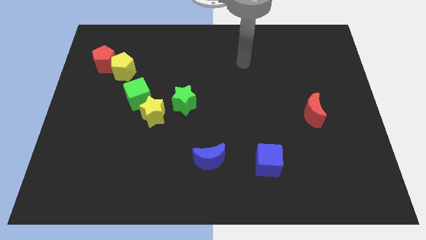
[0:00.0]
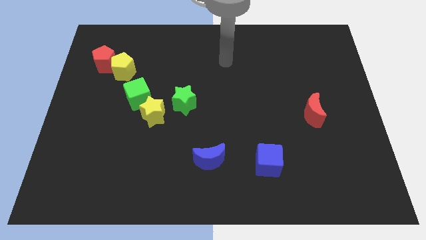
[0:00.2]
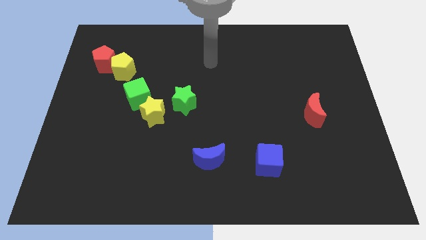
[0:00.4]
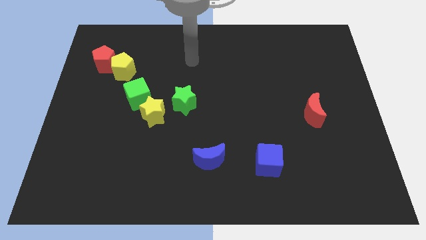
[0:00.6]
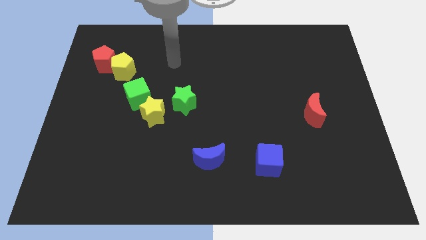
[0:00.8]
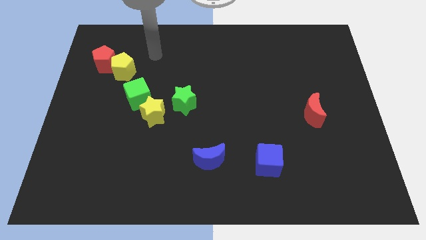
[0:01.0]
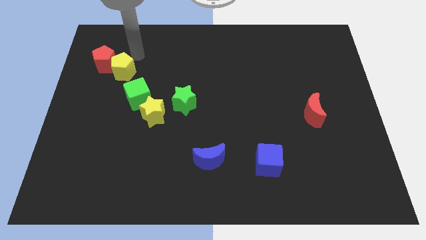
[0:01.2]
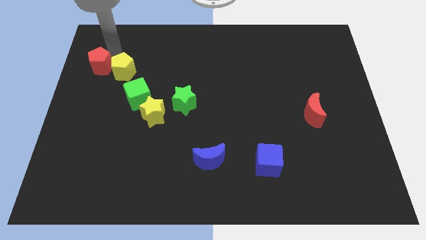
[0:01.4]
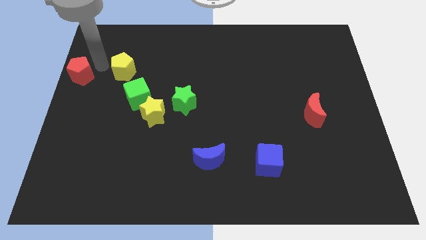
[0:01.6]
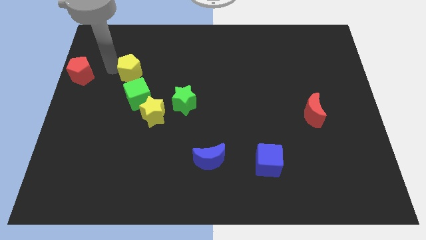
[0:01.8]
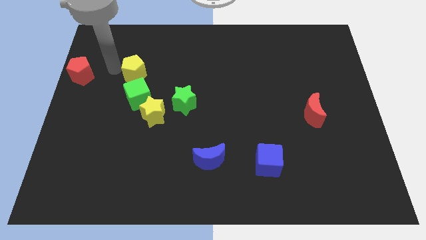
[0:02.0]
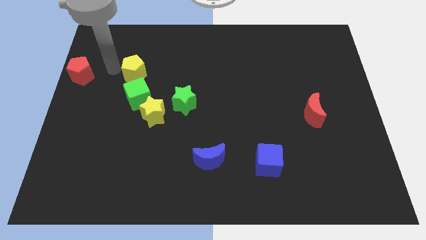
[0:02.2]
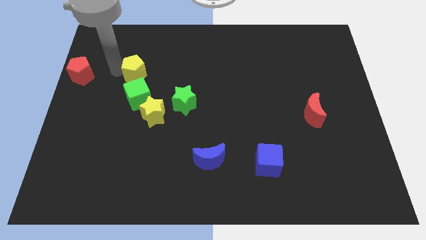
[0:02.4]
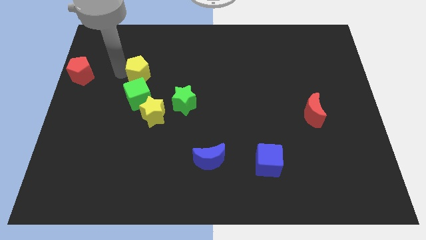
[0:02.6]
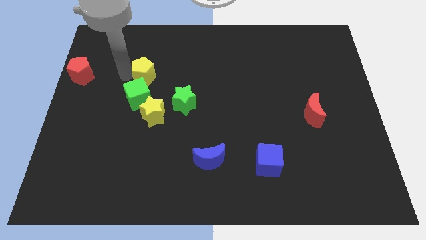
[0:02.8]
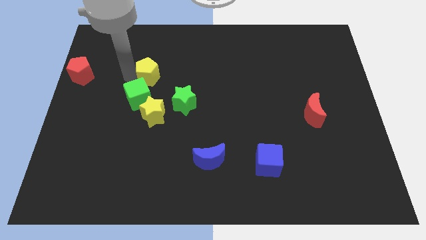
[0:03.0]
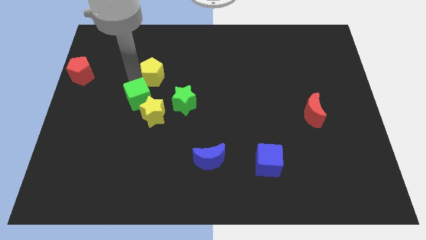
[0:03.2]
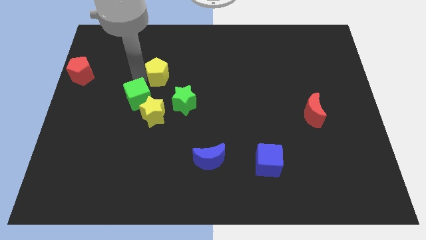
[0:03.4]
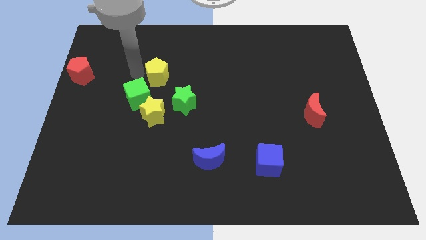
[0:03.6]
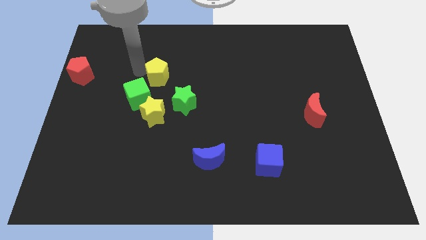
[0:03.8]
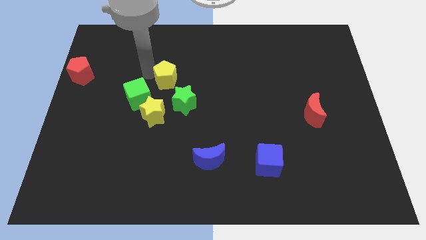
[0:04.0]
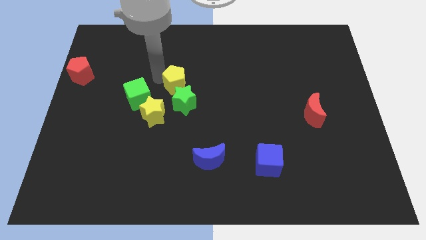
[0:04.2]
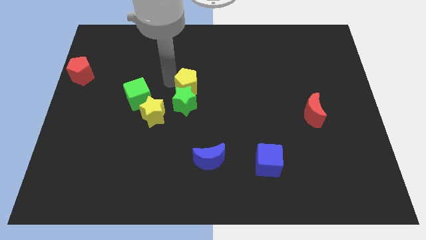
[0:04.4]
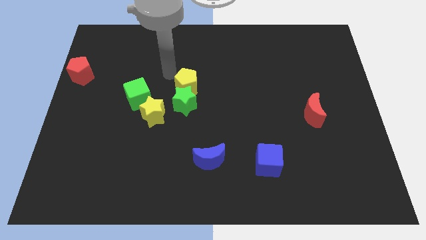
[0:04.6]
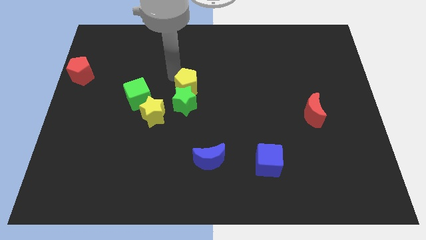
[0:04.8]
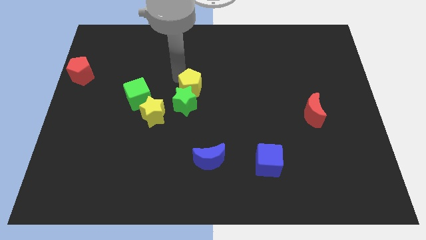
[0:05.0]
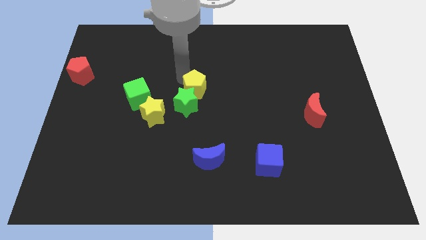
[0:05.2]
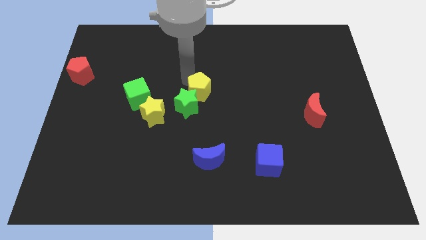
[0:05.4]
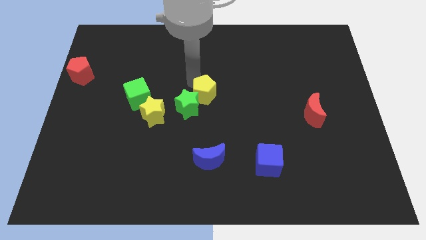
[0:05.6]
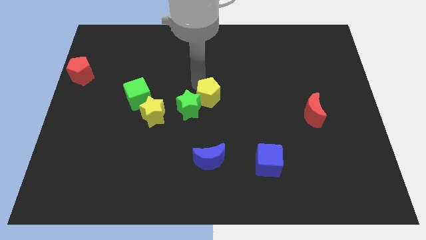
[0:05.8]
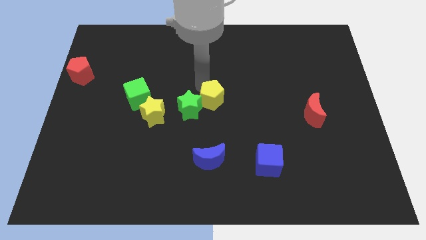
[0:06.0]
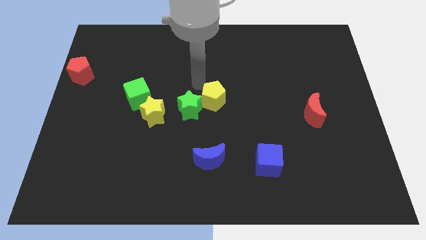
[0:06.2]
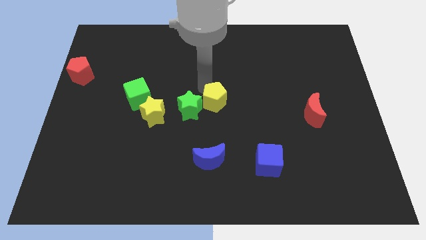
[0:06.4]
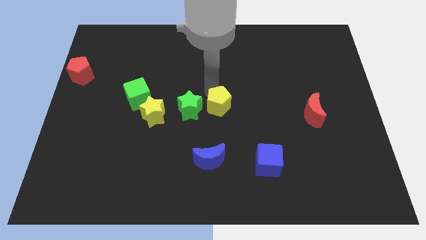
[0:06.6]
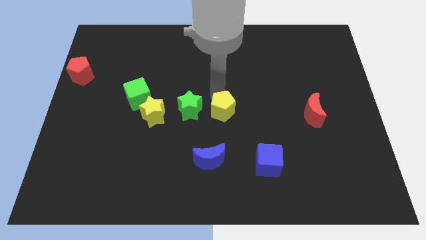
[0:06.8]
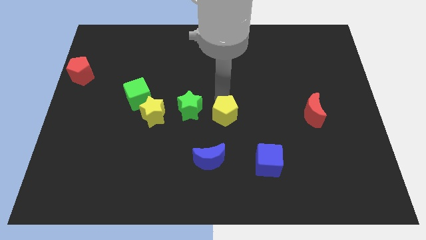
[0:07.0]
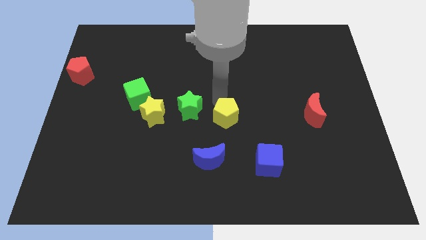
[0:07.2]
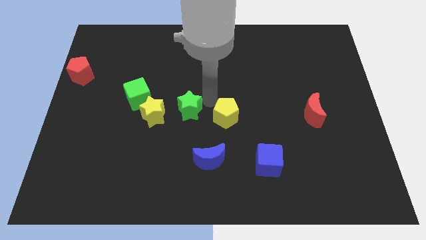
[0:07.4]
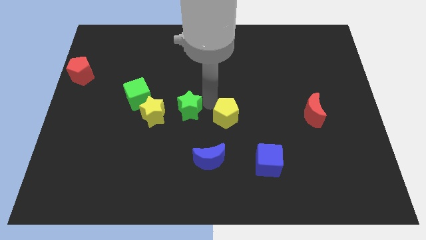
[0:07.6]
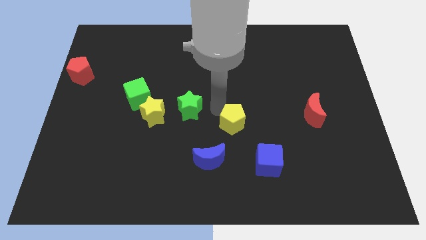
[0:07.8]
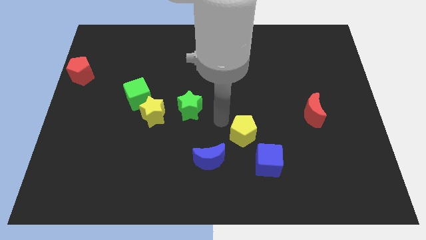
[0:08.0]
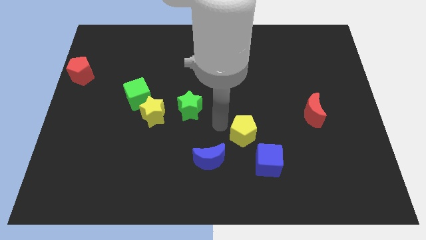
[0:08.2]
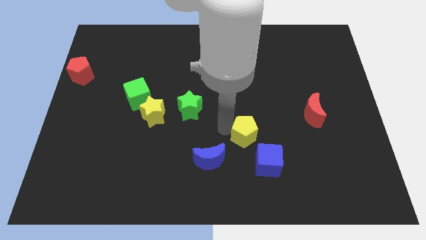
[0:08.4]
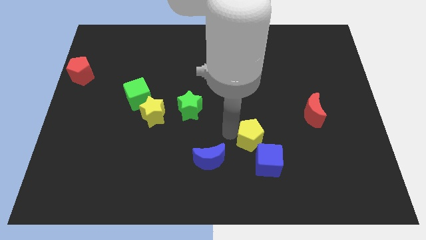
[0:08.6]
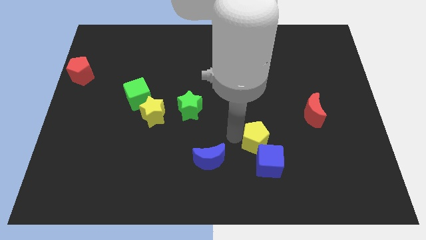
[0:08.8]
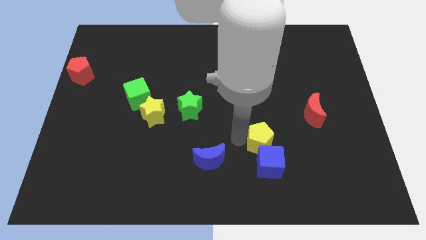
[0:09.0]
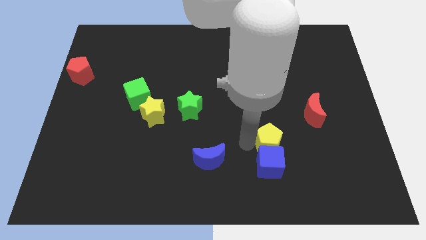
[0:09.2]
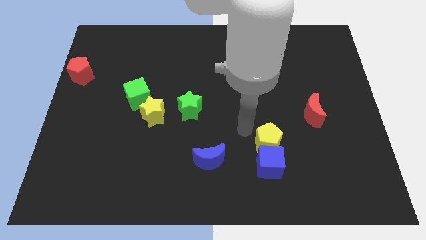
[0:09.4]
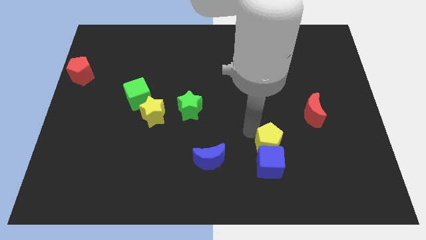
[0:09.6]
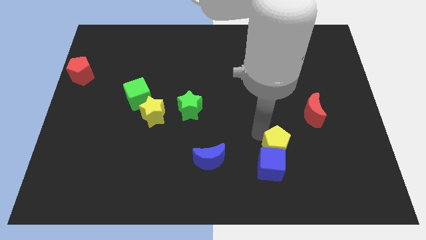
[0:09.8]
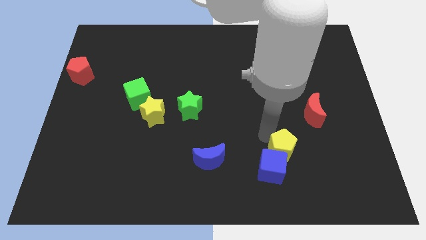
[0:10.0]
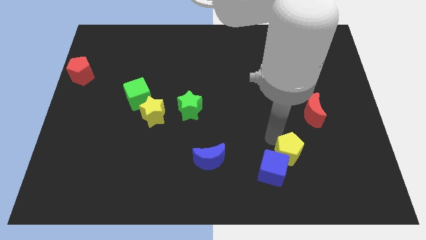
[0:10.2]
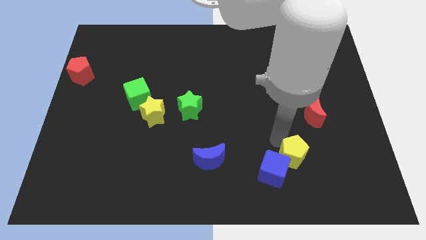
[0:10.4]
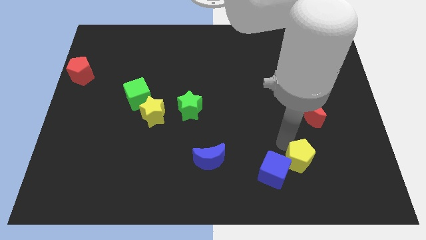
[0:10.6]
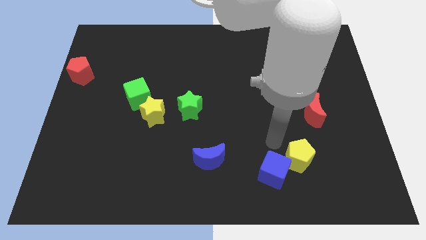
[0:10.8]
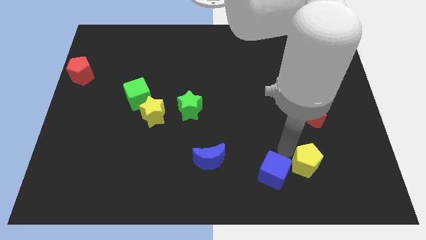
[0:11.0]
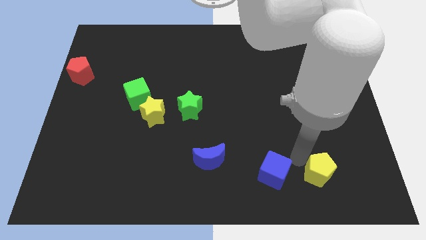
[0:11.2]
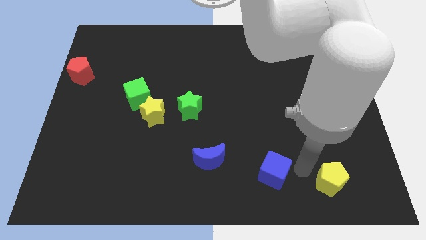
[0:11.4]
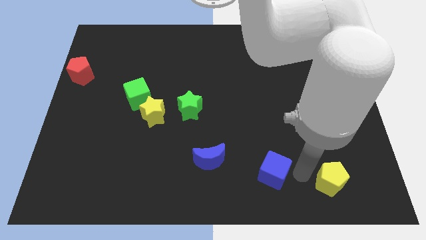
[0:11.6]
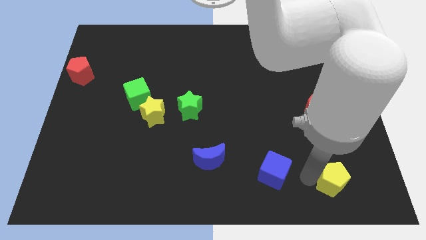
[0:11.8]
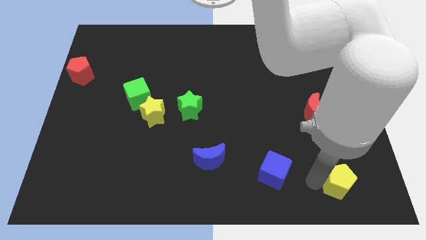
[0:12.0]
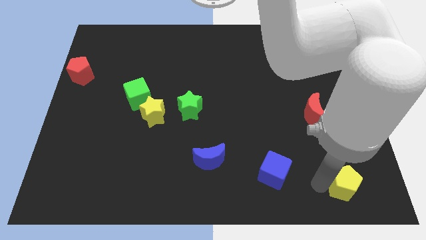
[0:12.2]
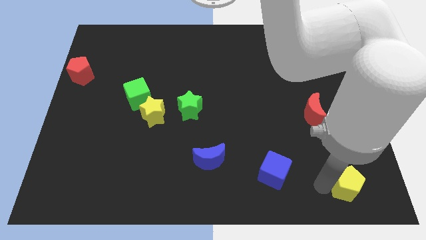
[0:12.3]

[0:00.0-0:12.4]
push the yellow pentagon to the bottom right of the board

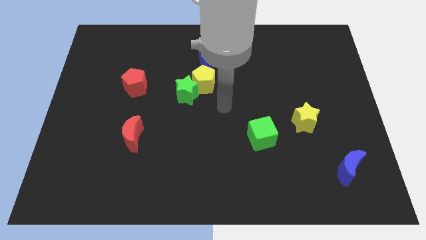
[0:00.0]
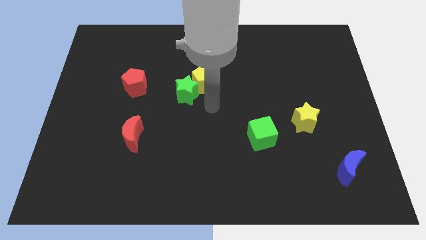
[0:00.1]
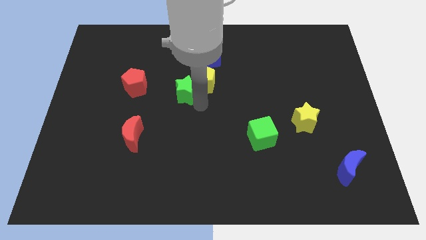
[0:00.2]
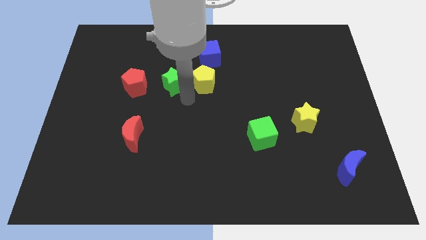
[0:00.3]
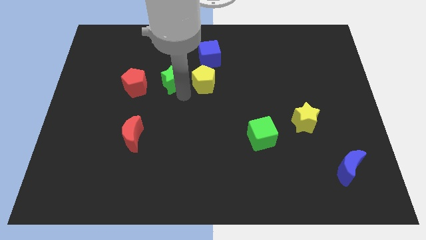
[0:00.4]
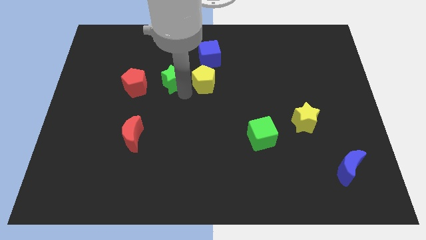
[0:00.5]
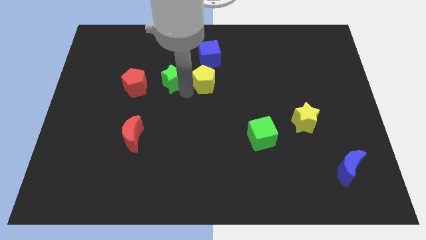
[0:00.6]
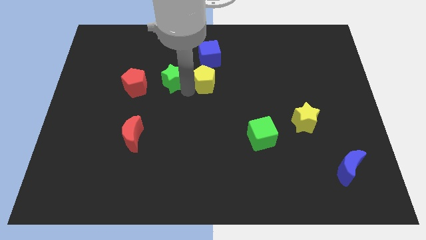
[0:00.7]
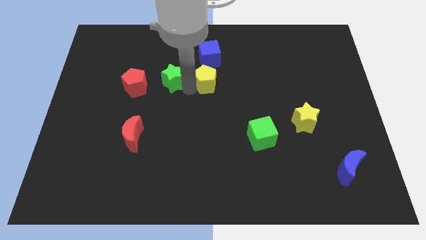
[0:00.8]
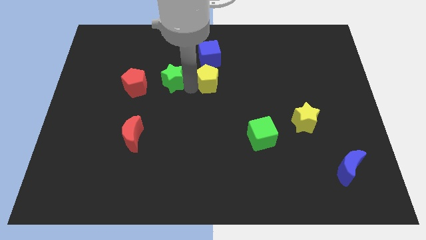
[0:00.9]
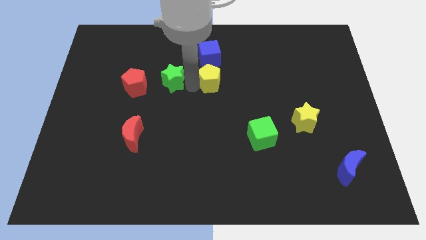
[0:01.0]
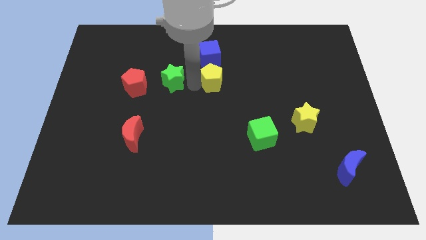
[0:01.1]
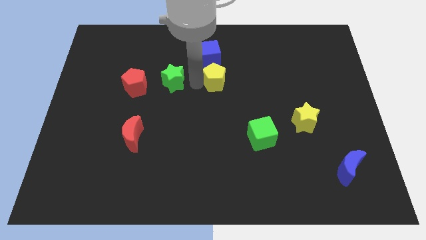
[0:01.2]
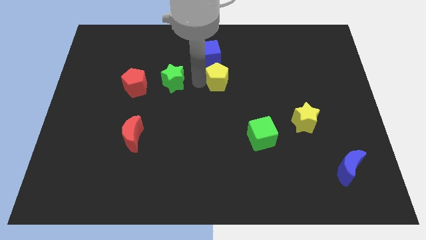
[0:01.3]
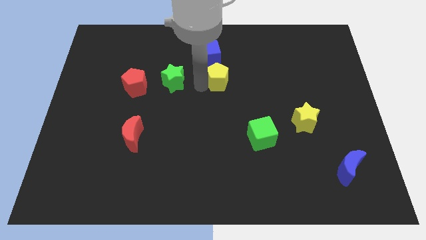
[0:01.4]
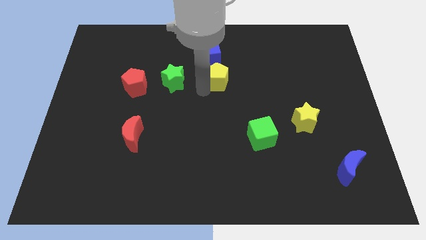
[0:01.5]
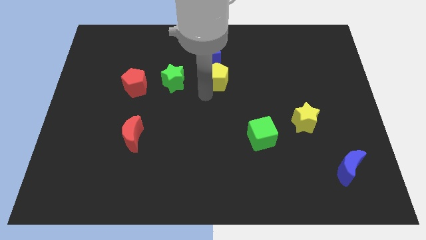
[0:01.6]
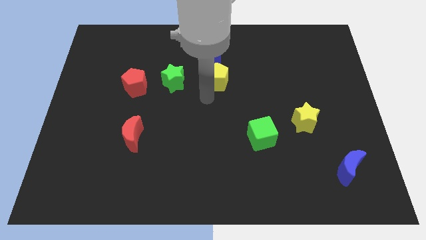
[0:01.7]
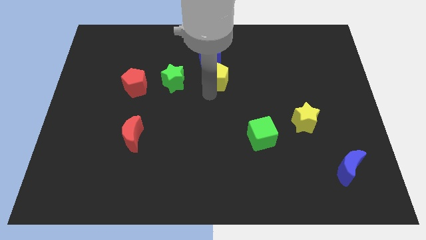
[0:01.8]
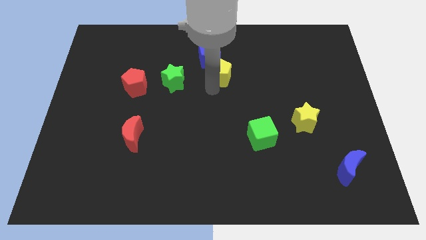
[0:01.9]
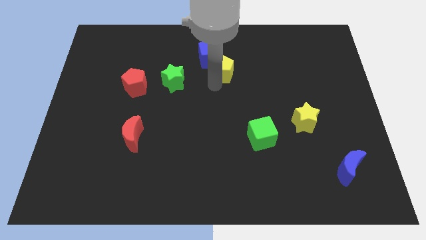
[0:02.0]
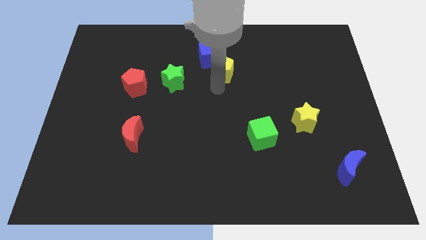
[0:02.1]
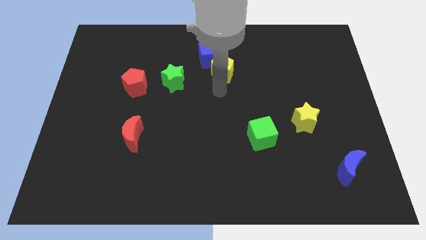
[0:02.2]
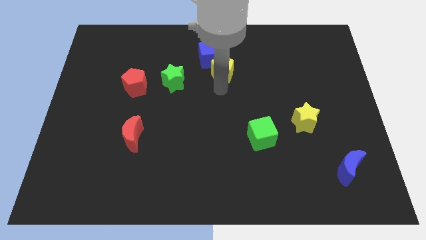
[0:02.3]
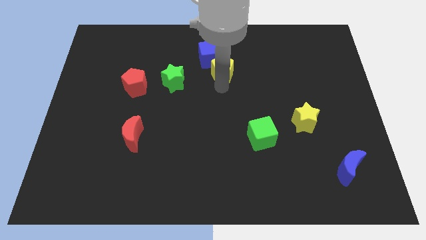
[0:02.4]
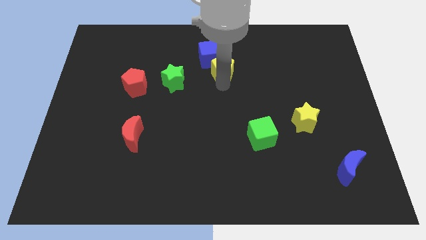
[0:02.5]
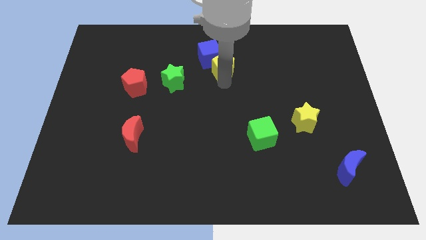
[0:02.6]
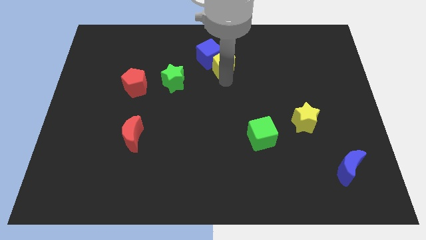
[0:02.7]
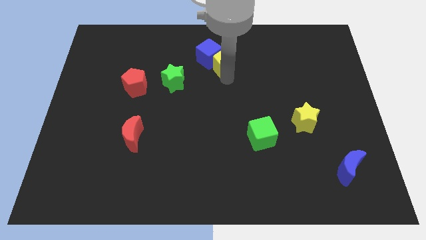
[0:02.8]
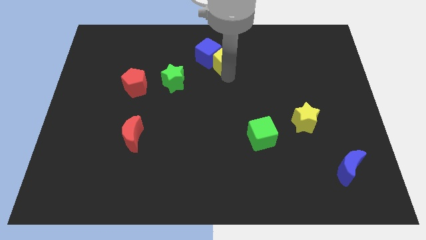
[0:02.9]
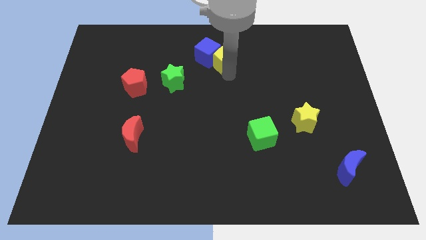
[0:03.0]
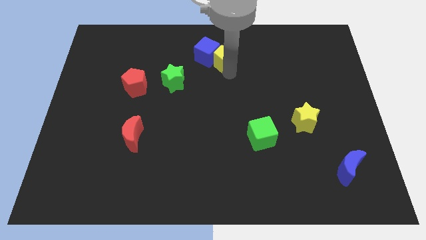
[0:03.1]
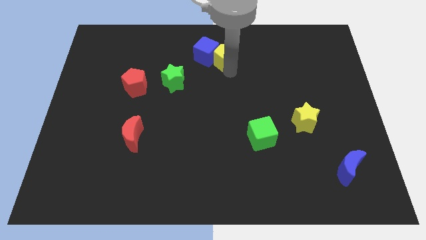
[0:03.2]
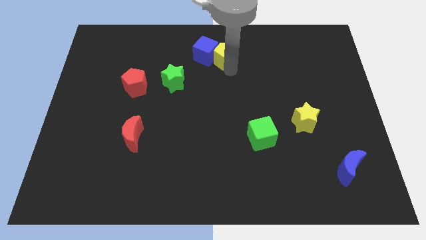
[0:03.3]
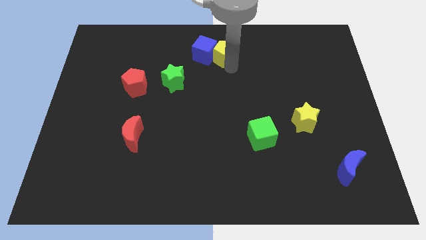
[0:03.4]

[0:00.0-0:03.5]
put the yellow pentagon to the top side
